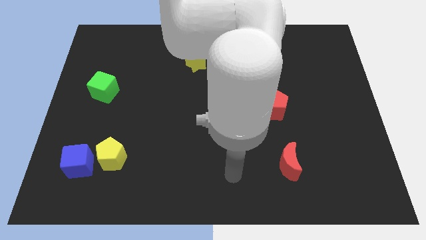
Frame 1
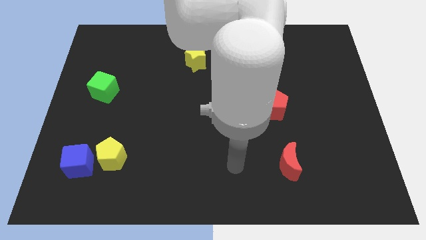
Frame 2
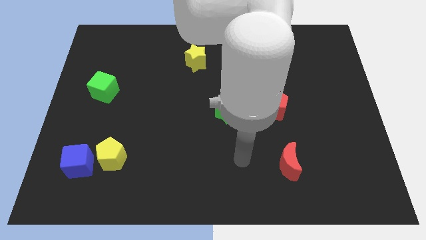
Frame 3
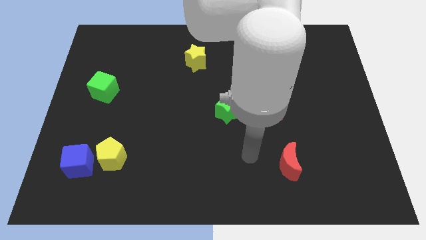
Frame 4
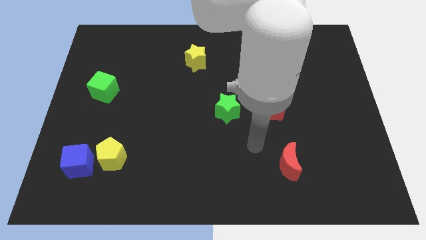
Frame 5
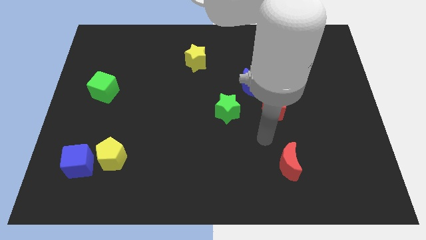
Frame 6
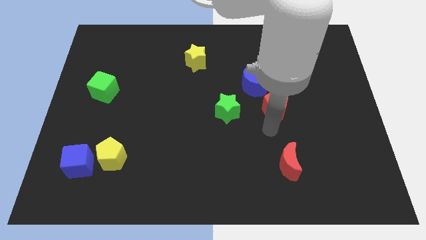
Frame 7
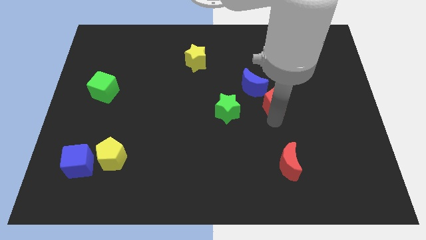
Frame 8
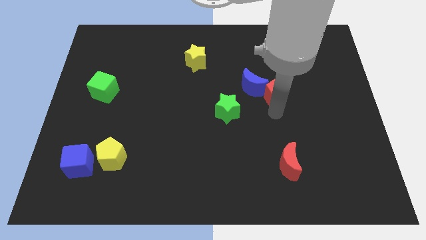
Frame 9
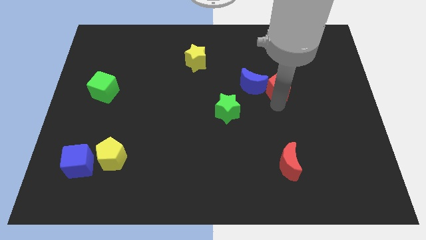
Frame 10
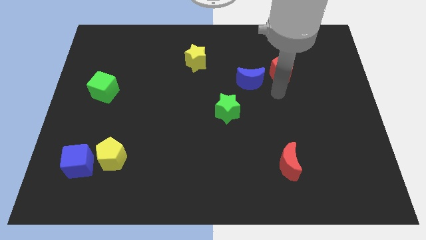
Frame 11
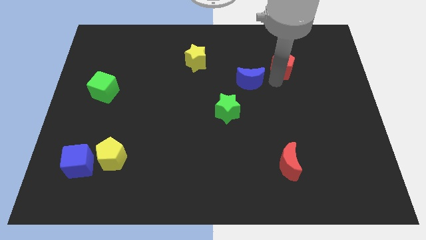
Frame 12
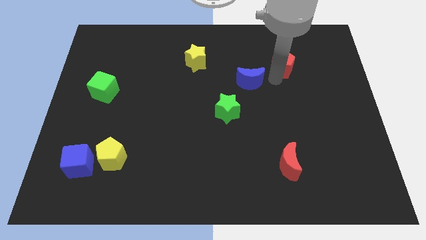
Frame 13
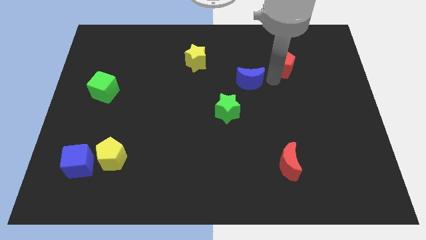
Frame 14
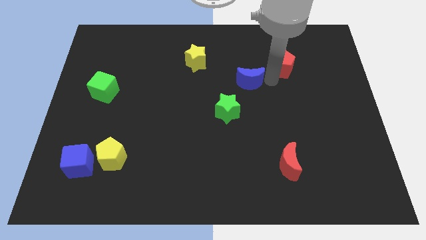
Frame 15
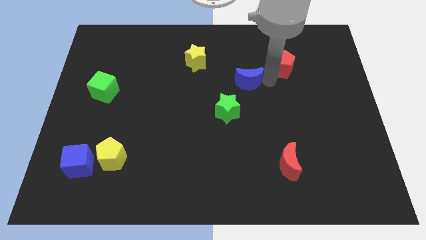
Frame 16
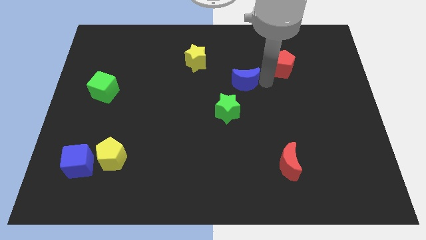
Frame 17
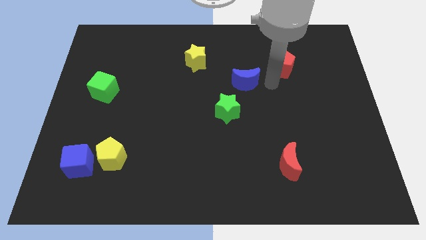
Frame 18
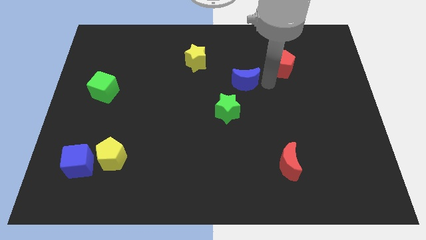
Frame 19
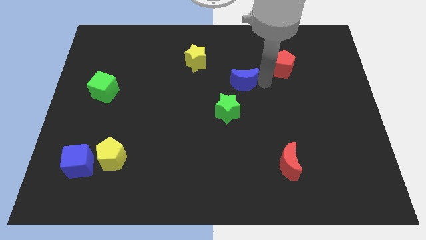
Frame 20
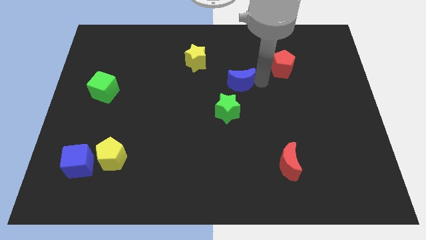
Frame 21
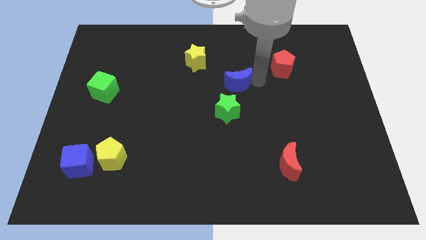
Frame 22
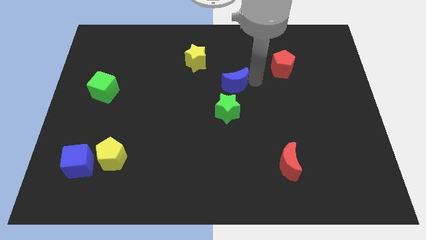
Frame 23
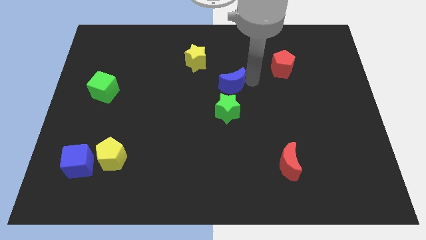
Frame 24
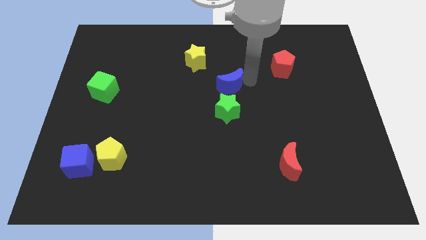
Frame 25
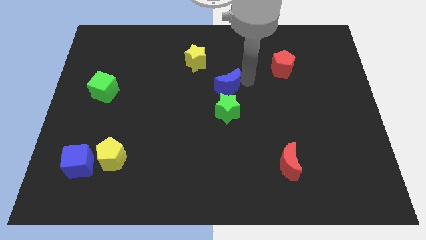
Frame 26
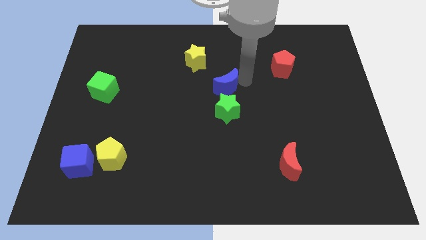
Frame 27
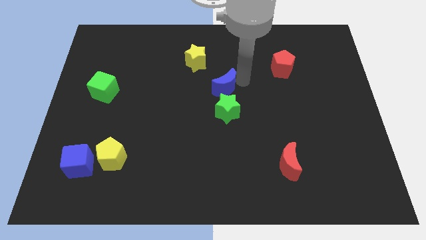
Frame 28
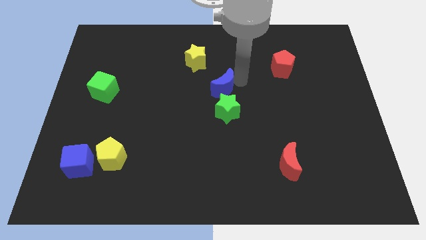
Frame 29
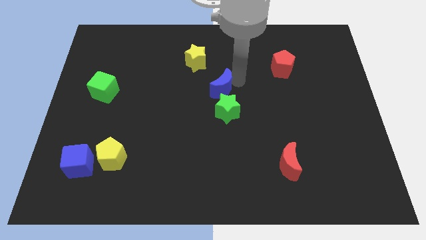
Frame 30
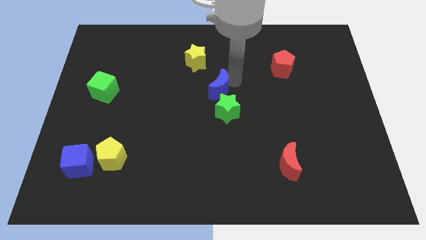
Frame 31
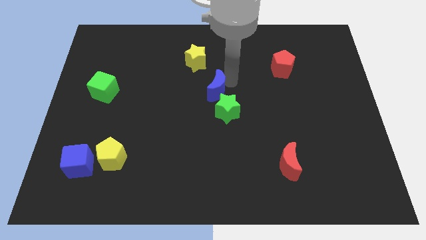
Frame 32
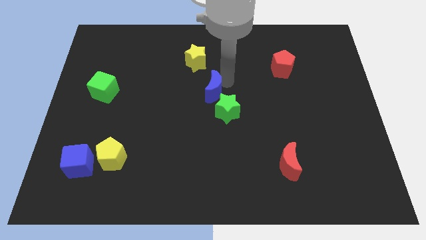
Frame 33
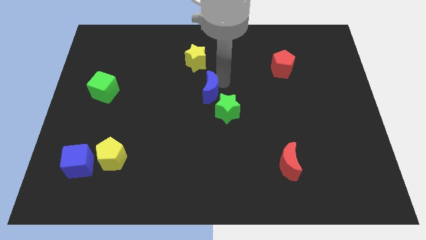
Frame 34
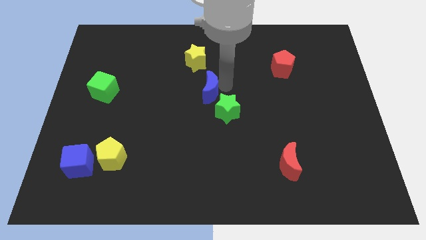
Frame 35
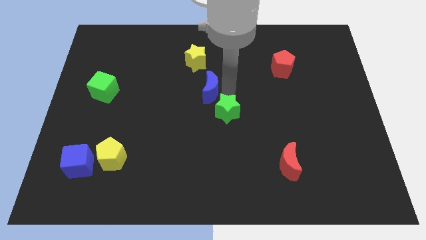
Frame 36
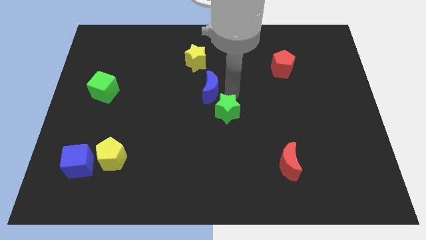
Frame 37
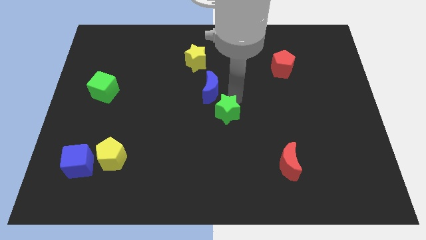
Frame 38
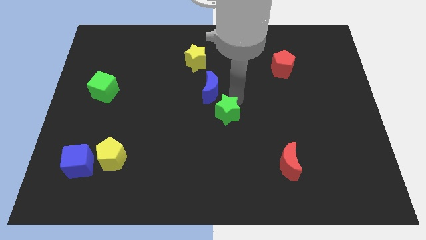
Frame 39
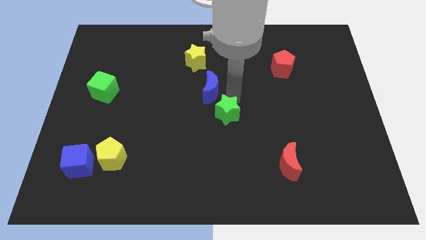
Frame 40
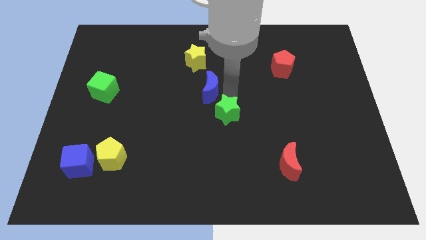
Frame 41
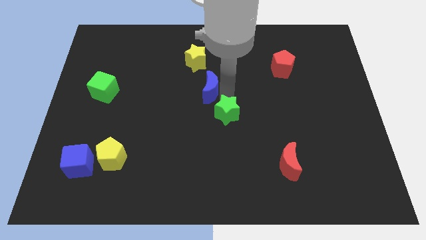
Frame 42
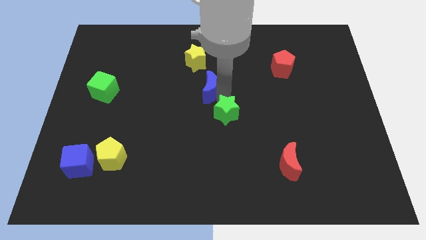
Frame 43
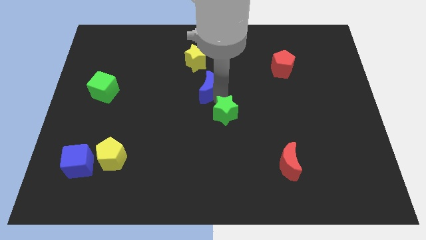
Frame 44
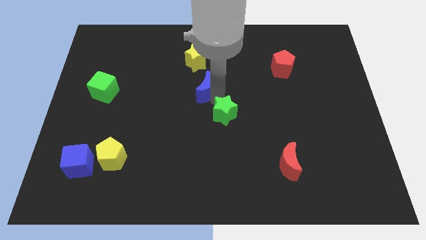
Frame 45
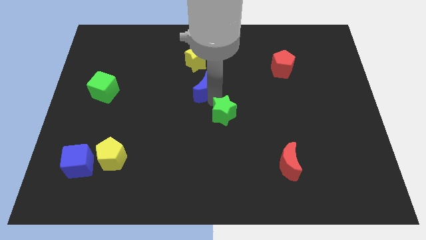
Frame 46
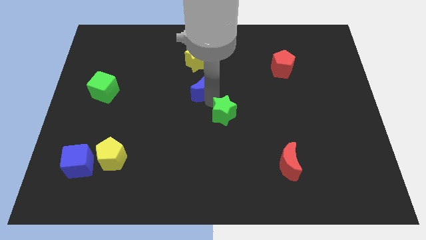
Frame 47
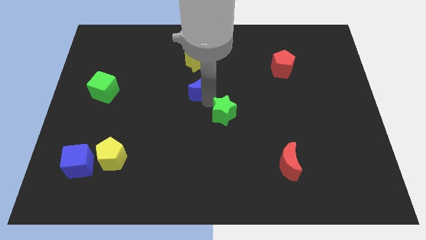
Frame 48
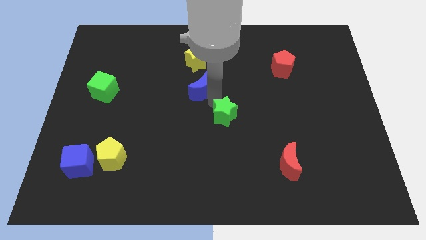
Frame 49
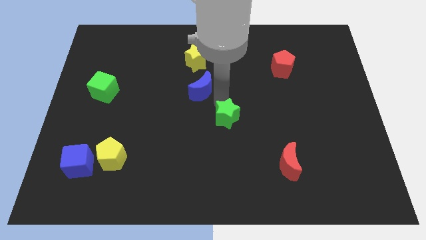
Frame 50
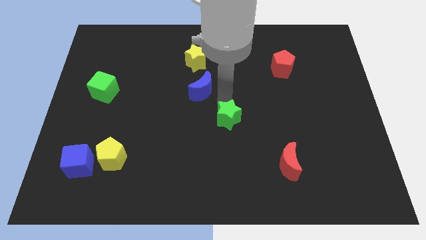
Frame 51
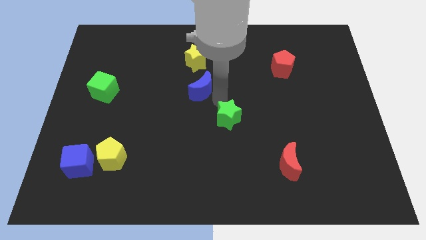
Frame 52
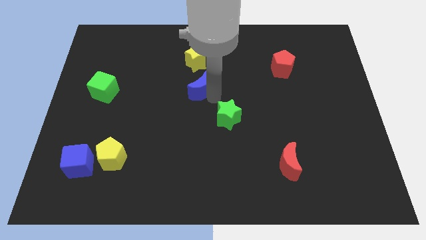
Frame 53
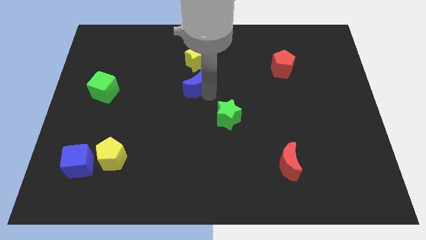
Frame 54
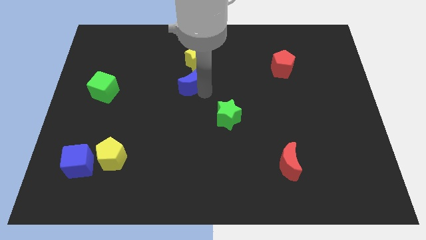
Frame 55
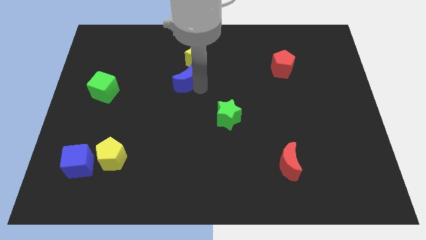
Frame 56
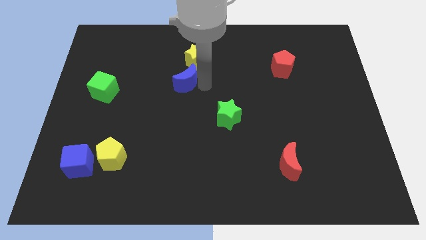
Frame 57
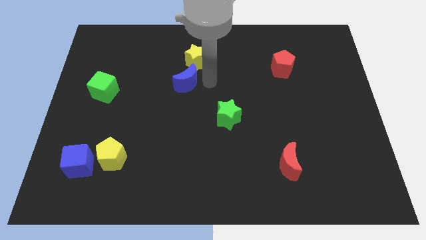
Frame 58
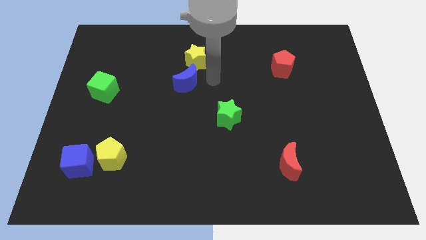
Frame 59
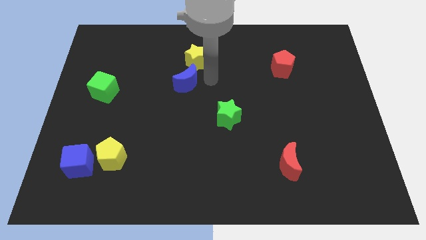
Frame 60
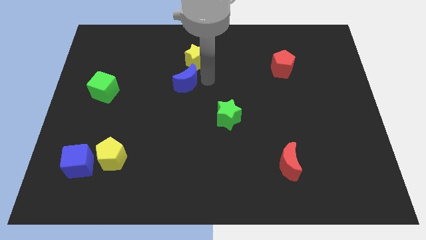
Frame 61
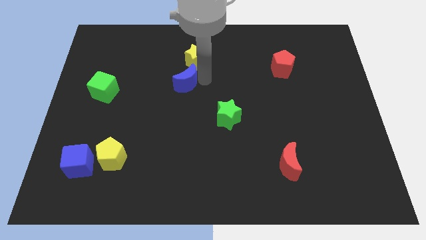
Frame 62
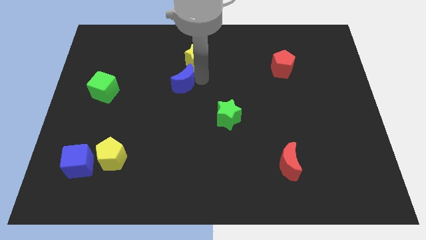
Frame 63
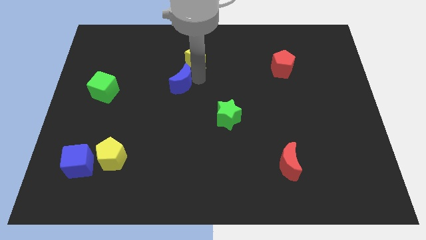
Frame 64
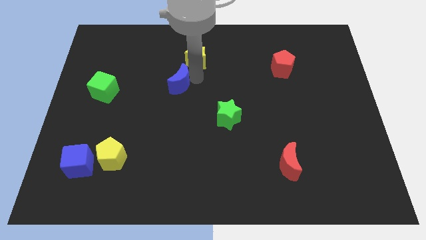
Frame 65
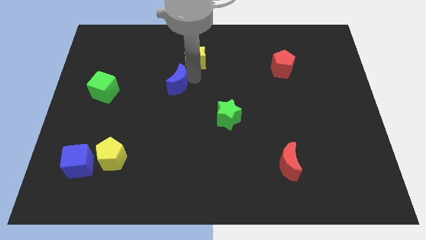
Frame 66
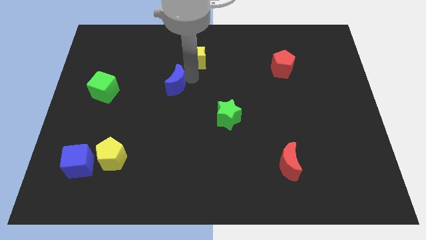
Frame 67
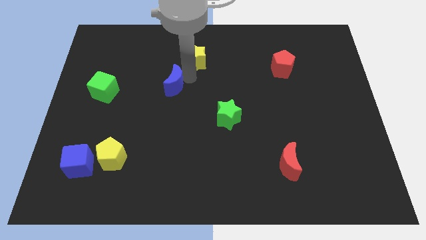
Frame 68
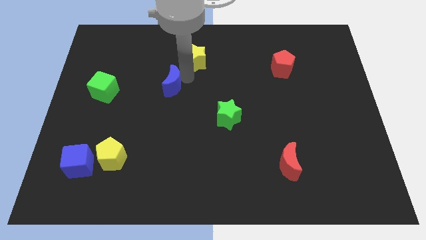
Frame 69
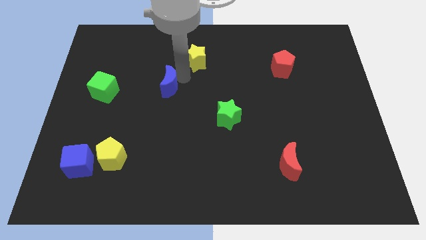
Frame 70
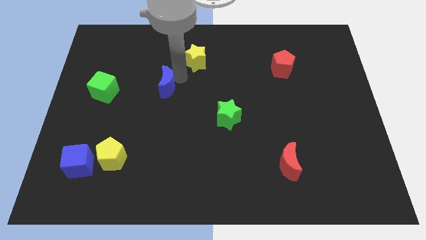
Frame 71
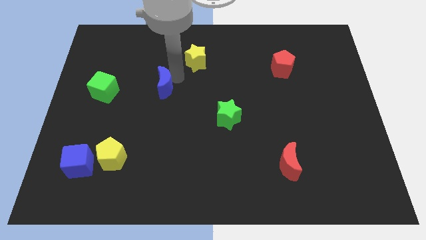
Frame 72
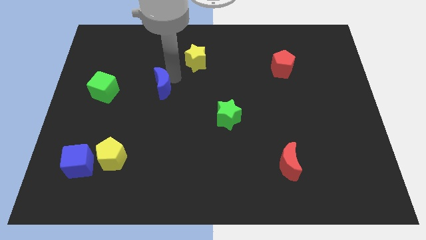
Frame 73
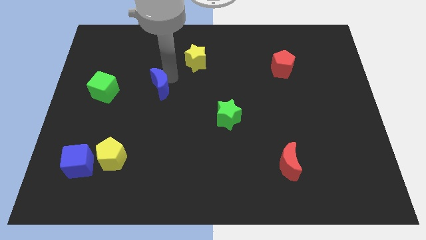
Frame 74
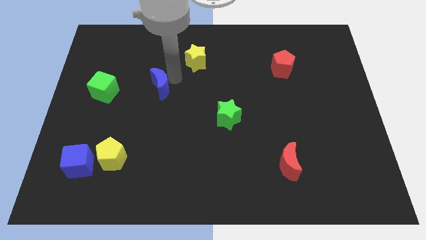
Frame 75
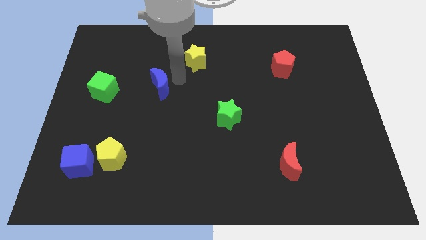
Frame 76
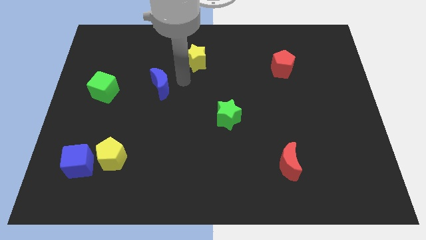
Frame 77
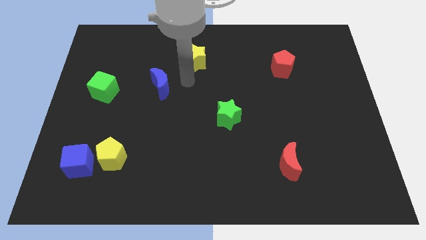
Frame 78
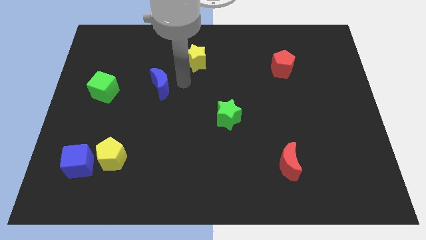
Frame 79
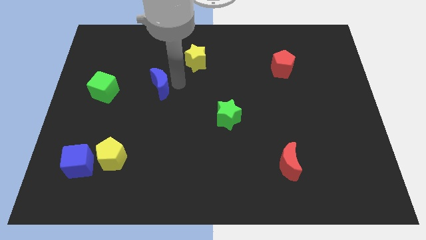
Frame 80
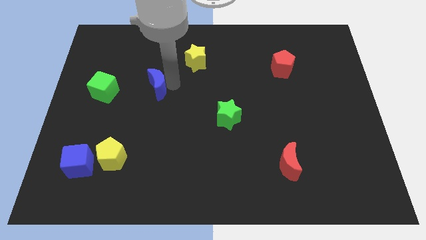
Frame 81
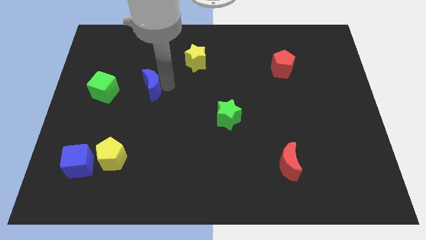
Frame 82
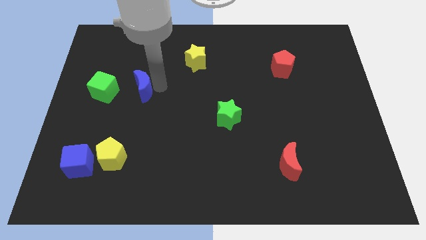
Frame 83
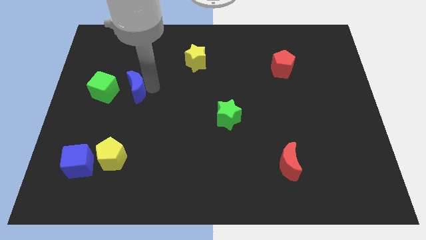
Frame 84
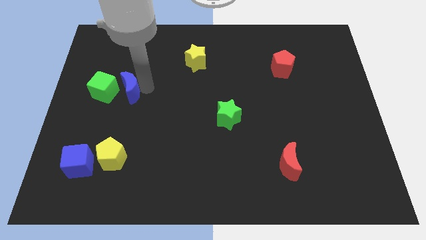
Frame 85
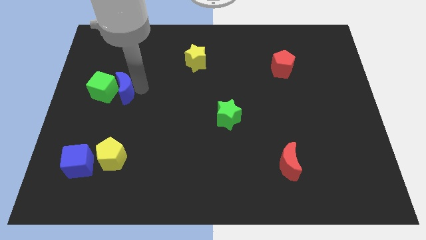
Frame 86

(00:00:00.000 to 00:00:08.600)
push the blue moon to the green cube
